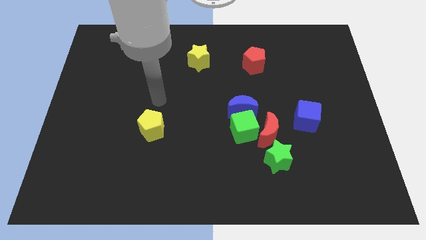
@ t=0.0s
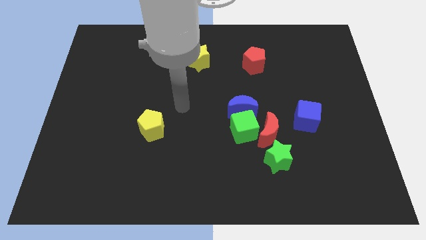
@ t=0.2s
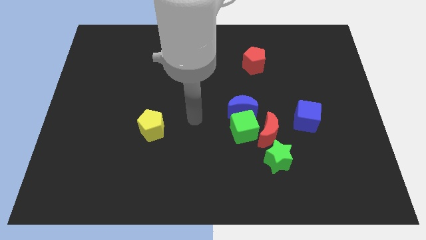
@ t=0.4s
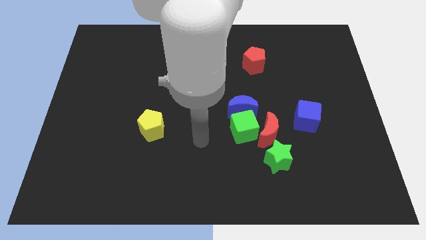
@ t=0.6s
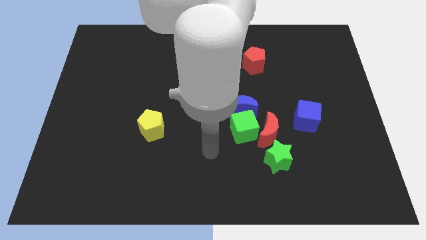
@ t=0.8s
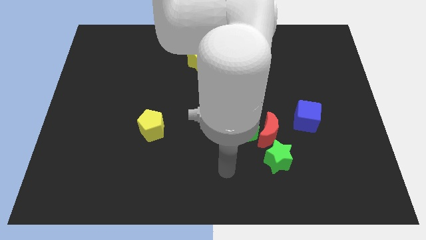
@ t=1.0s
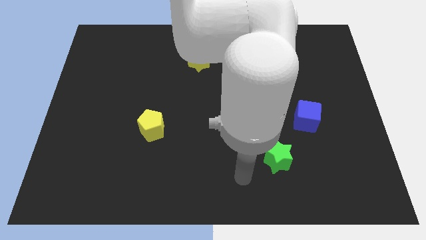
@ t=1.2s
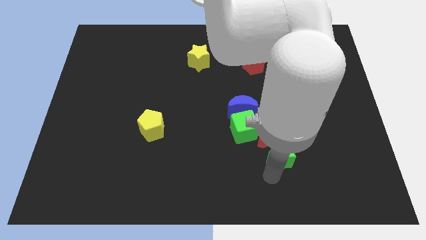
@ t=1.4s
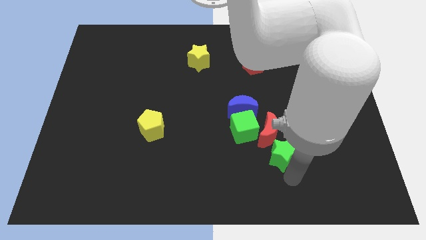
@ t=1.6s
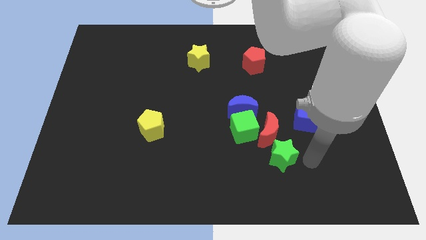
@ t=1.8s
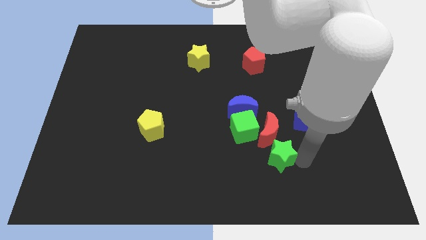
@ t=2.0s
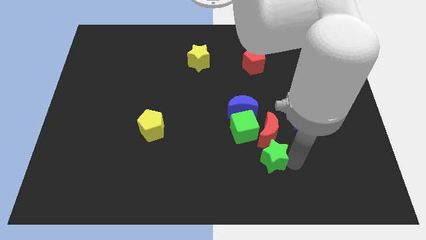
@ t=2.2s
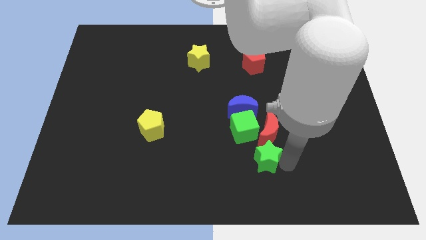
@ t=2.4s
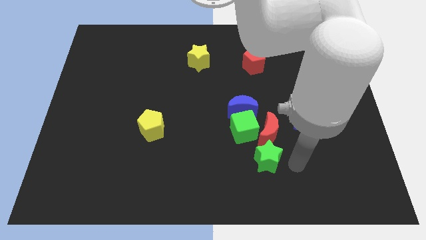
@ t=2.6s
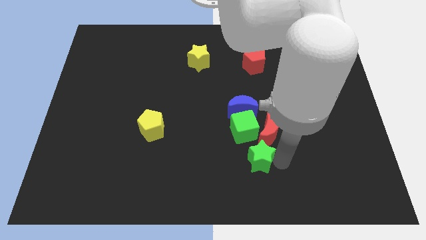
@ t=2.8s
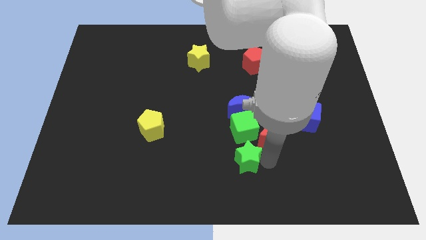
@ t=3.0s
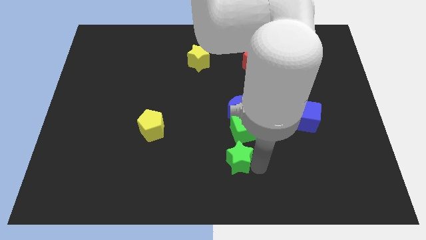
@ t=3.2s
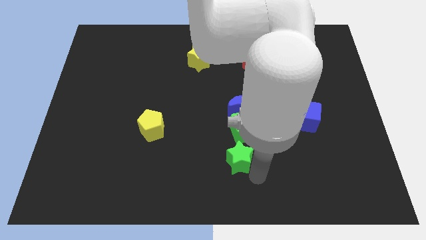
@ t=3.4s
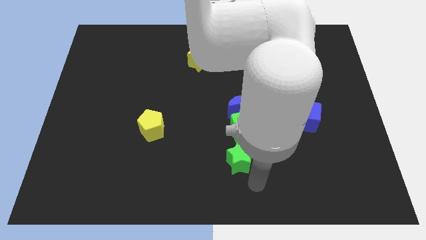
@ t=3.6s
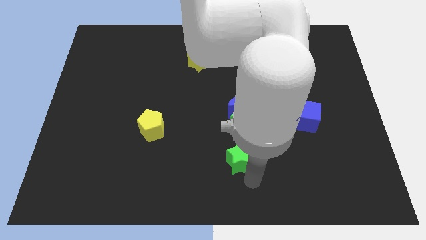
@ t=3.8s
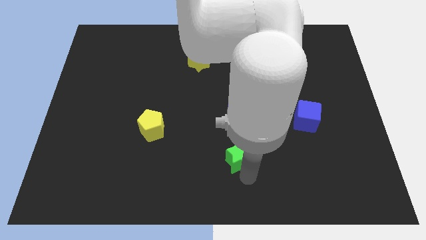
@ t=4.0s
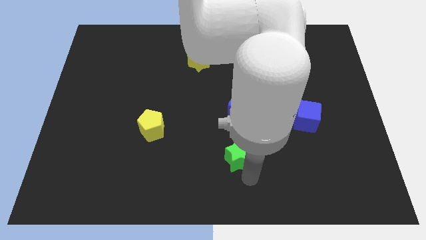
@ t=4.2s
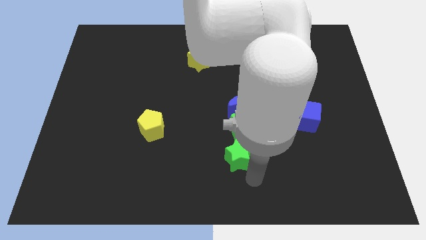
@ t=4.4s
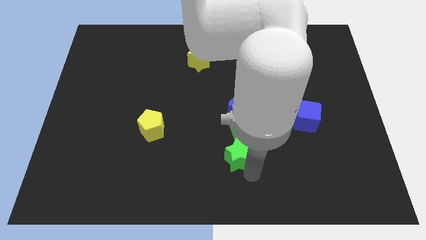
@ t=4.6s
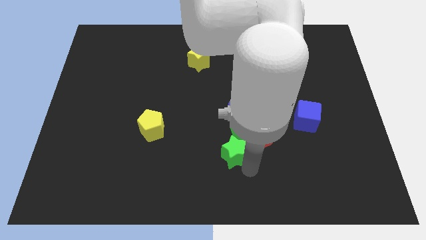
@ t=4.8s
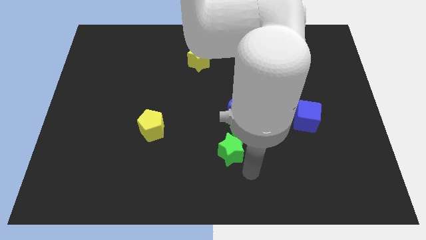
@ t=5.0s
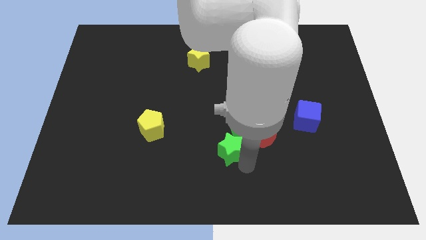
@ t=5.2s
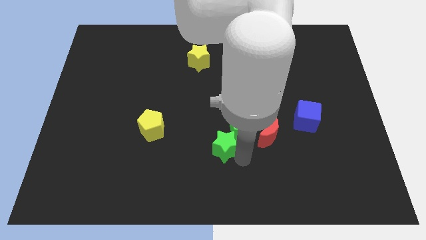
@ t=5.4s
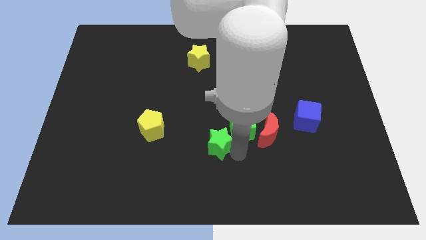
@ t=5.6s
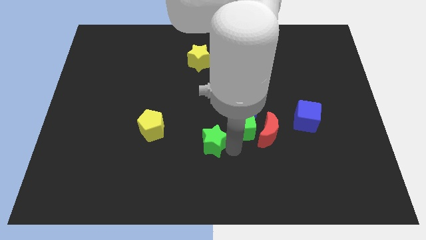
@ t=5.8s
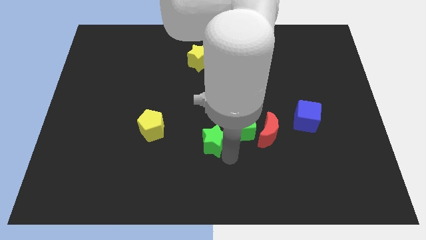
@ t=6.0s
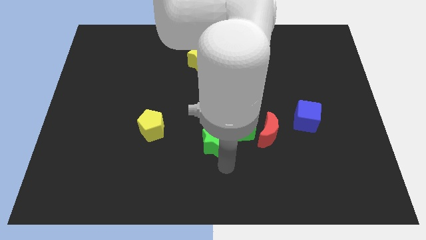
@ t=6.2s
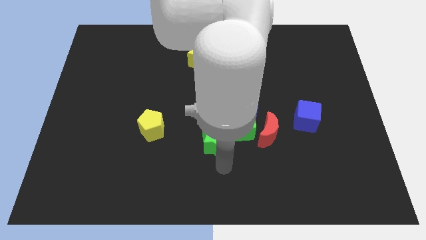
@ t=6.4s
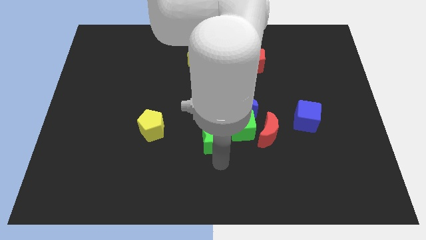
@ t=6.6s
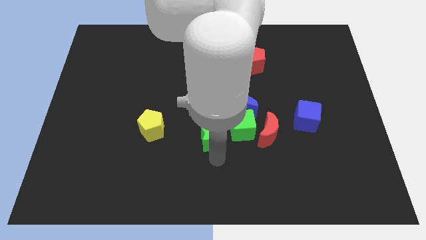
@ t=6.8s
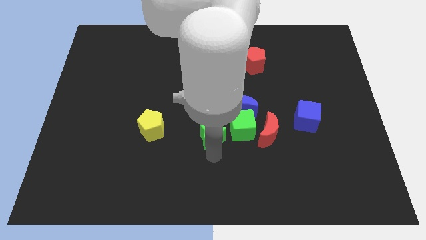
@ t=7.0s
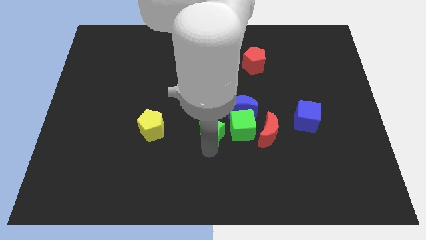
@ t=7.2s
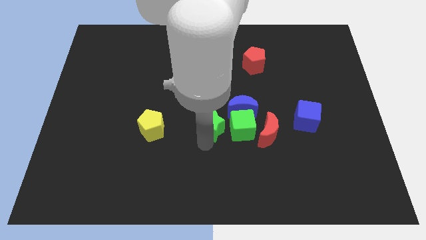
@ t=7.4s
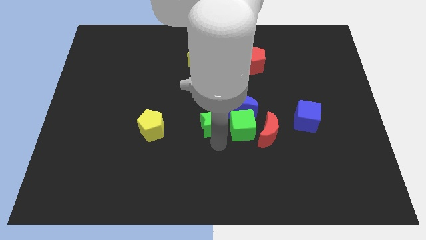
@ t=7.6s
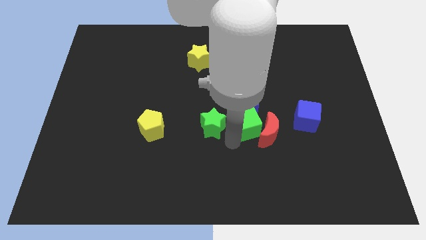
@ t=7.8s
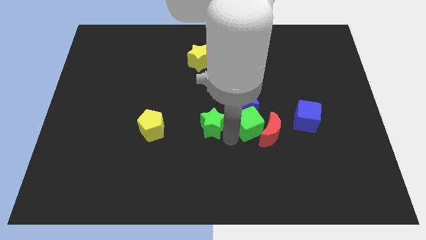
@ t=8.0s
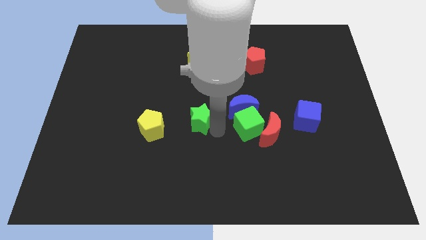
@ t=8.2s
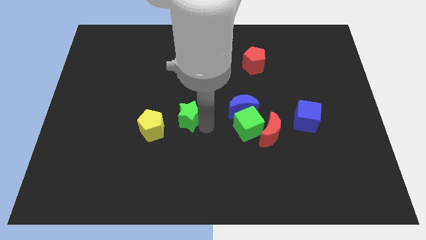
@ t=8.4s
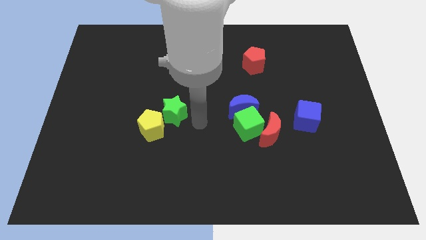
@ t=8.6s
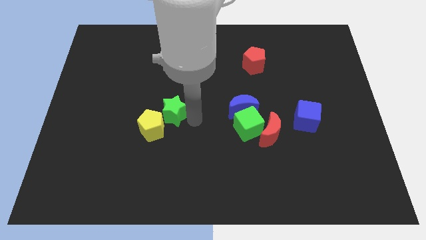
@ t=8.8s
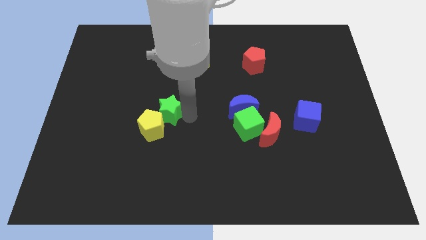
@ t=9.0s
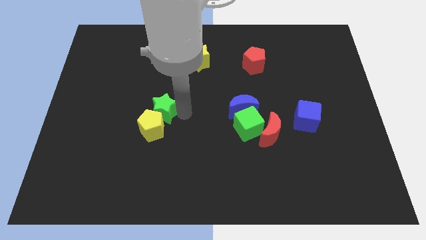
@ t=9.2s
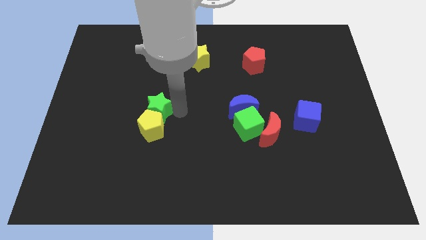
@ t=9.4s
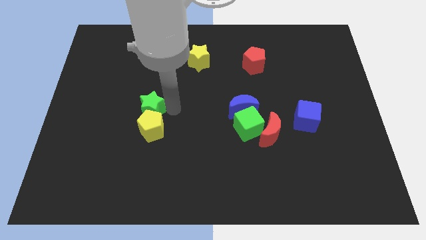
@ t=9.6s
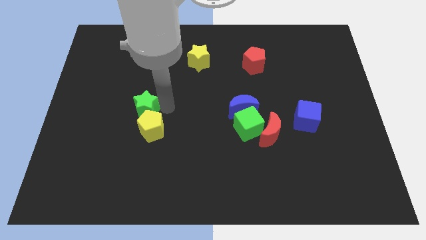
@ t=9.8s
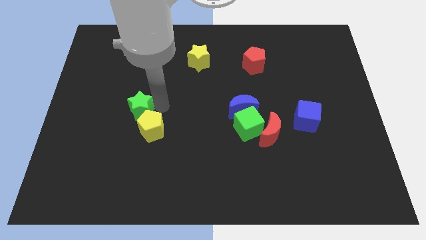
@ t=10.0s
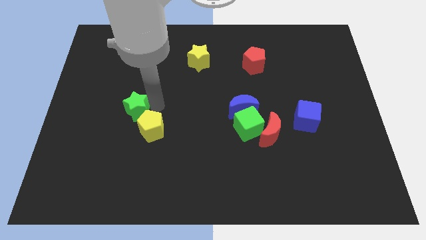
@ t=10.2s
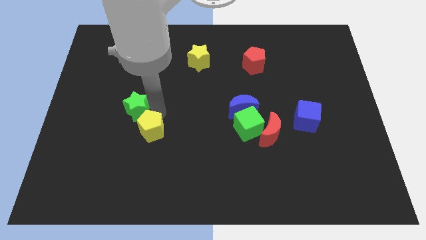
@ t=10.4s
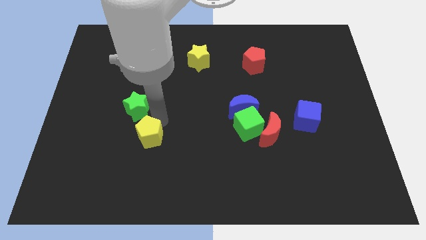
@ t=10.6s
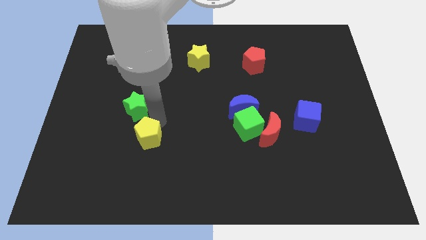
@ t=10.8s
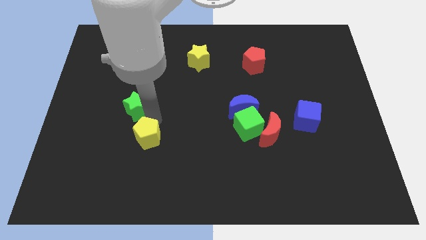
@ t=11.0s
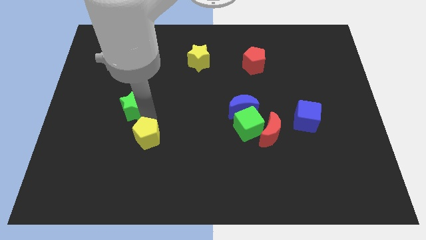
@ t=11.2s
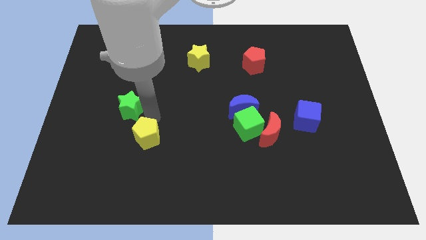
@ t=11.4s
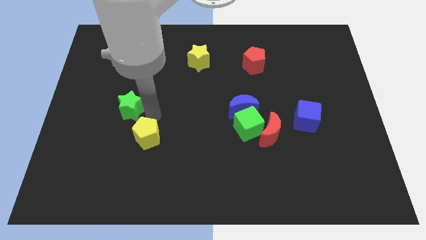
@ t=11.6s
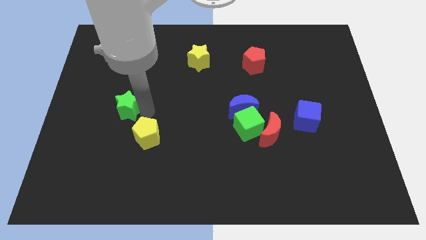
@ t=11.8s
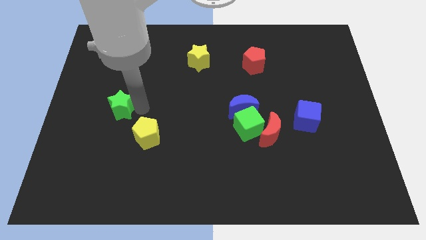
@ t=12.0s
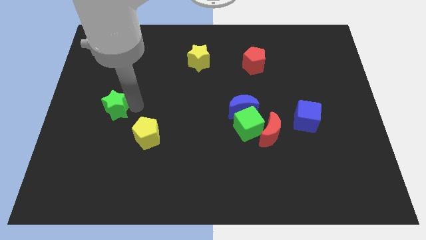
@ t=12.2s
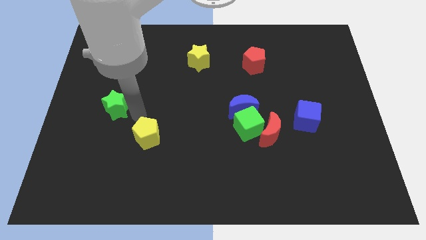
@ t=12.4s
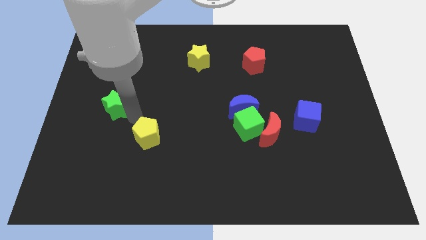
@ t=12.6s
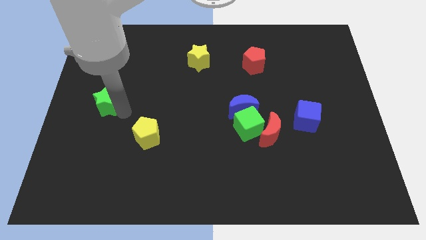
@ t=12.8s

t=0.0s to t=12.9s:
move the green star to the left side
